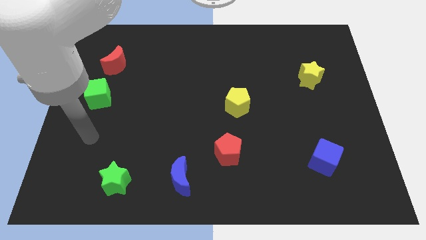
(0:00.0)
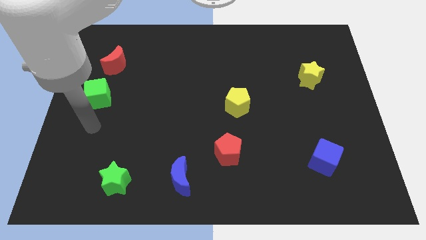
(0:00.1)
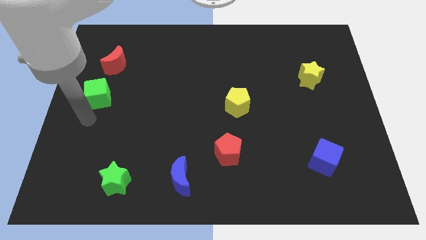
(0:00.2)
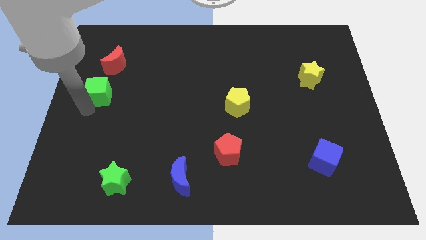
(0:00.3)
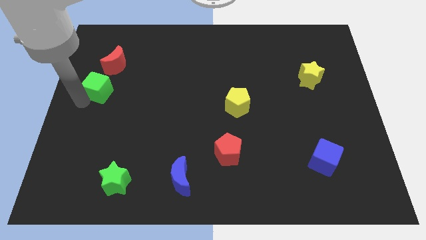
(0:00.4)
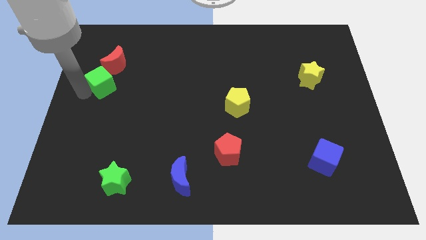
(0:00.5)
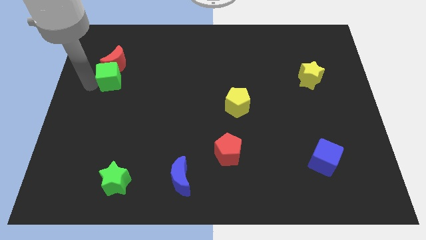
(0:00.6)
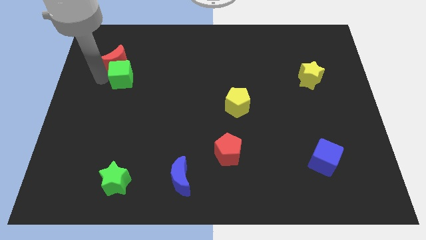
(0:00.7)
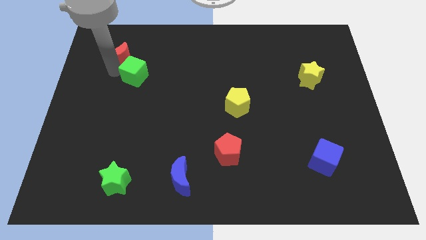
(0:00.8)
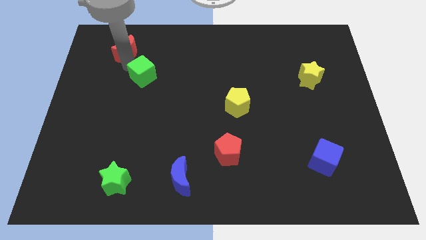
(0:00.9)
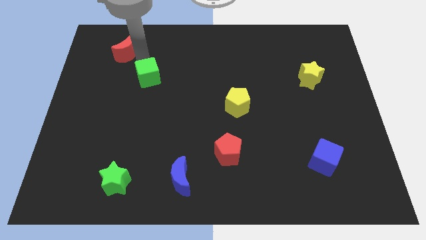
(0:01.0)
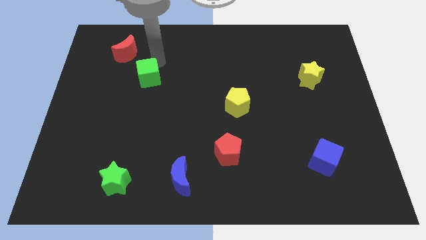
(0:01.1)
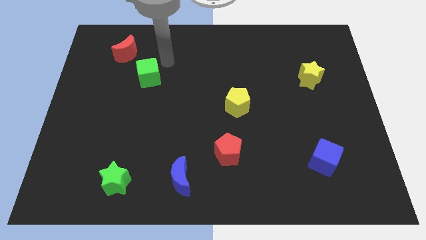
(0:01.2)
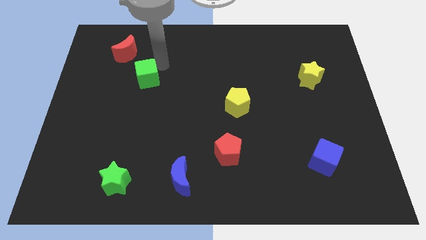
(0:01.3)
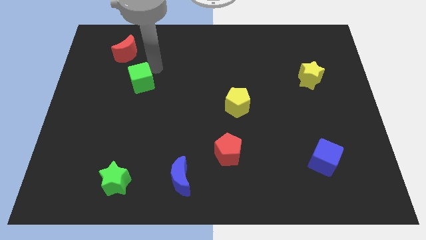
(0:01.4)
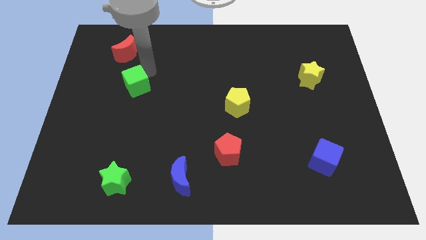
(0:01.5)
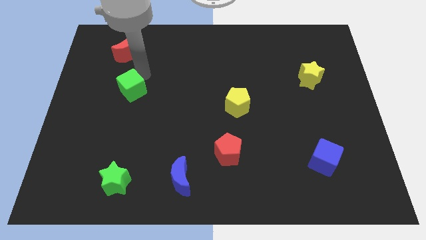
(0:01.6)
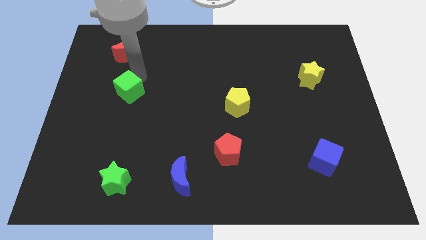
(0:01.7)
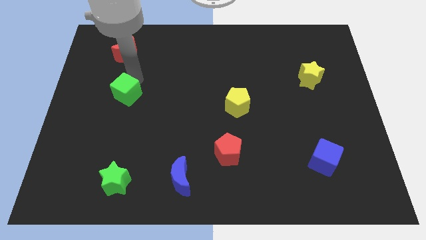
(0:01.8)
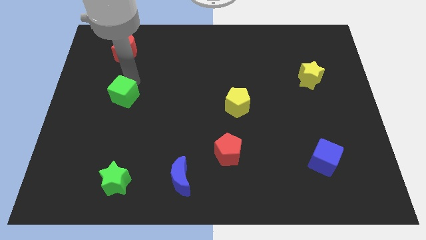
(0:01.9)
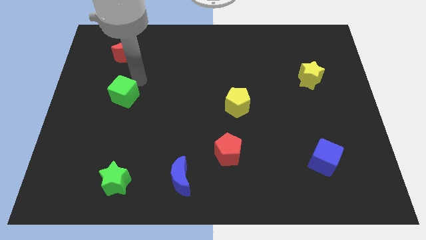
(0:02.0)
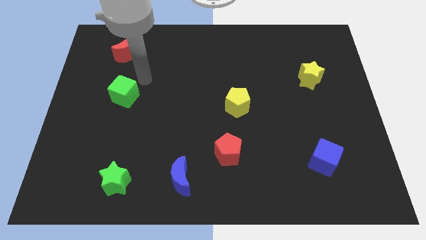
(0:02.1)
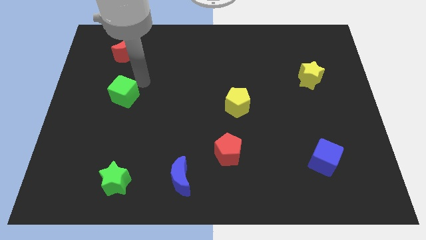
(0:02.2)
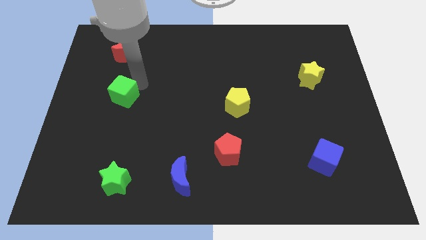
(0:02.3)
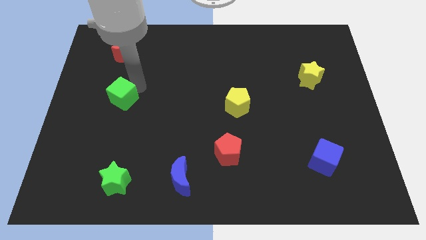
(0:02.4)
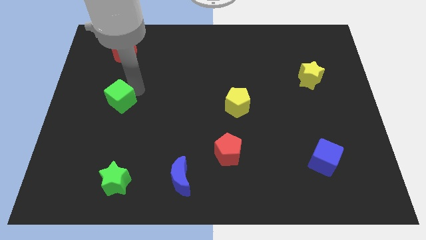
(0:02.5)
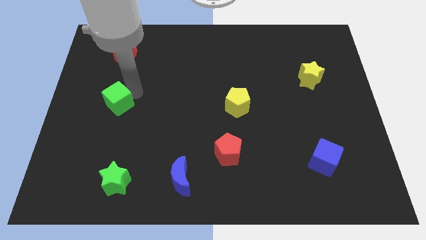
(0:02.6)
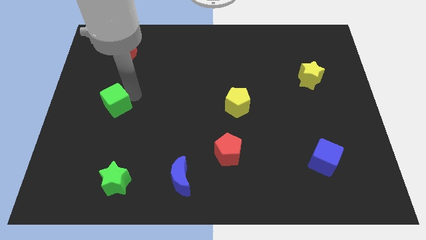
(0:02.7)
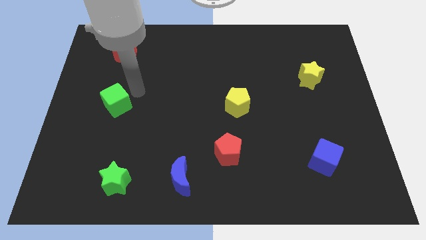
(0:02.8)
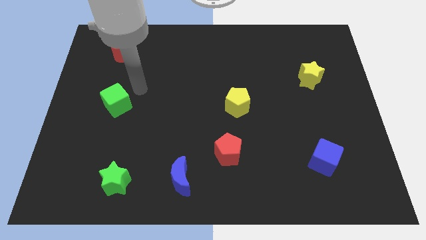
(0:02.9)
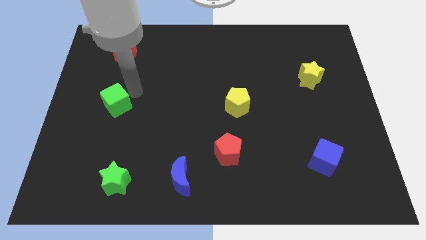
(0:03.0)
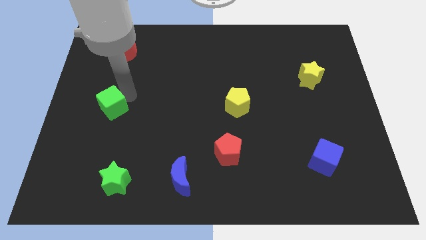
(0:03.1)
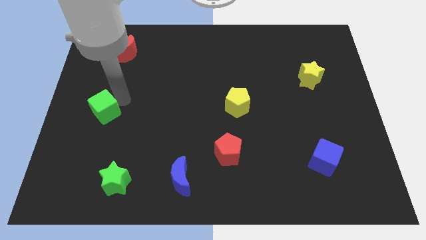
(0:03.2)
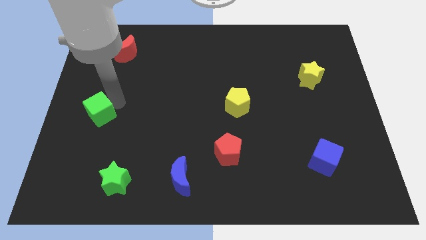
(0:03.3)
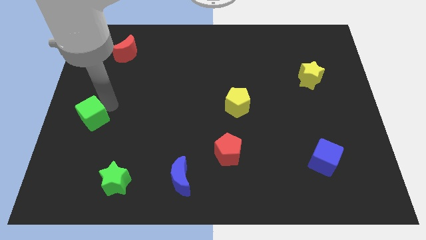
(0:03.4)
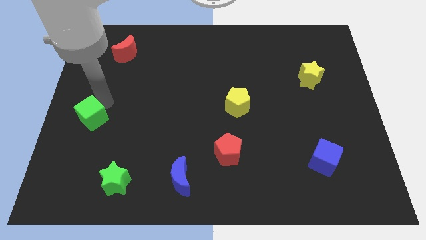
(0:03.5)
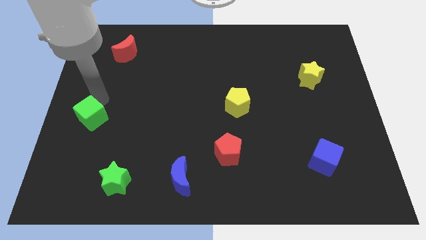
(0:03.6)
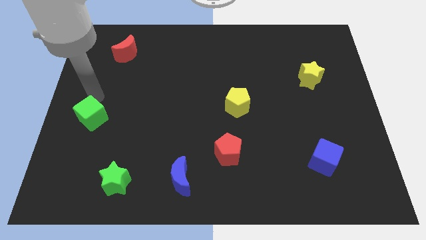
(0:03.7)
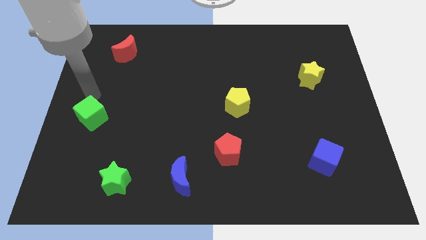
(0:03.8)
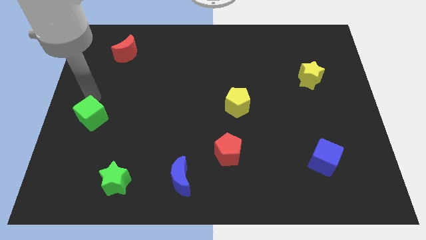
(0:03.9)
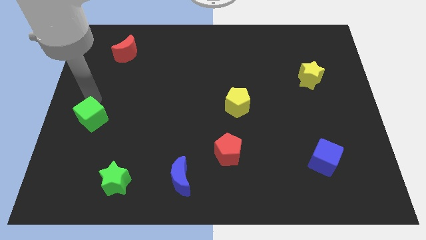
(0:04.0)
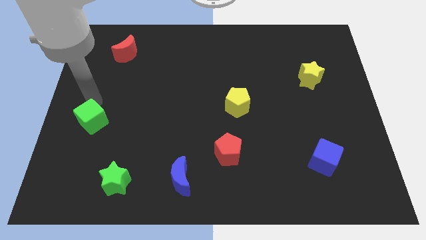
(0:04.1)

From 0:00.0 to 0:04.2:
slightly move the green cube down

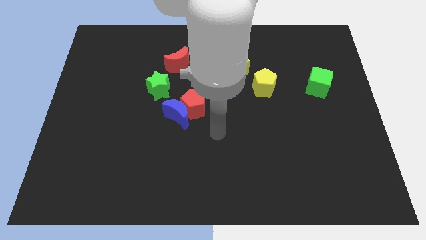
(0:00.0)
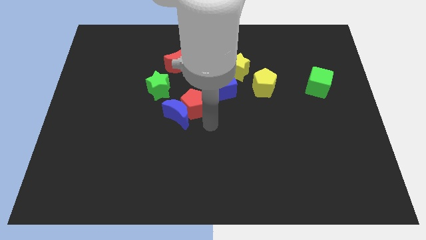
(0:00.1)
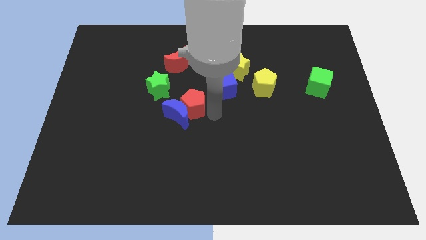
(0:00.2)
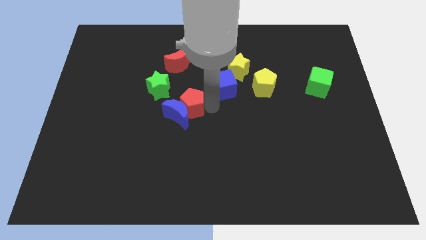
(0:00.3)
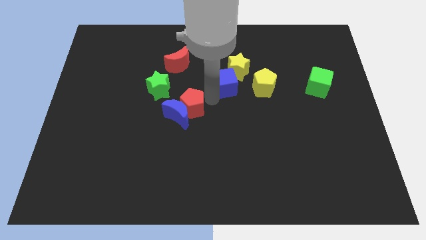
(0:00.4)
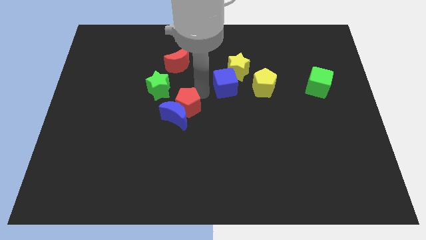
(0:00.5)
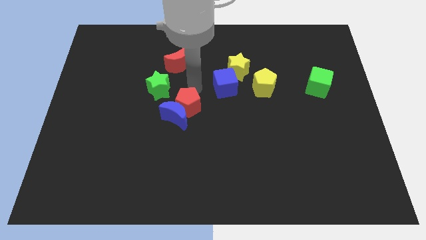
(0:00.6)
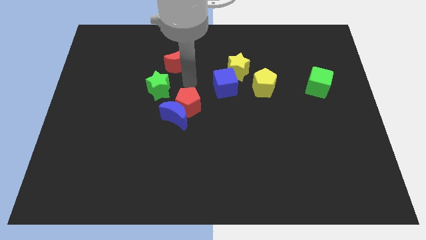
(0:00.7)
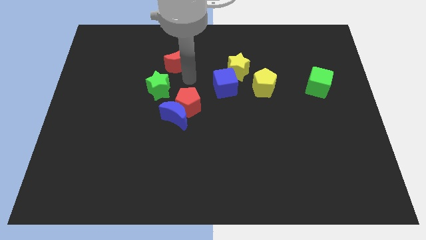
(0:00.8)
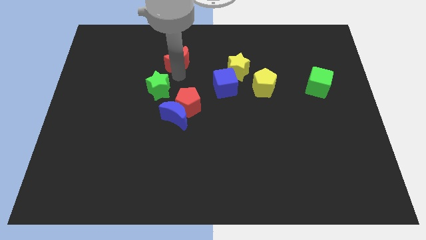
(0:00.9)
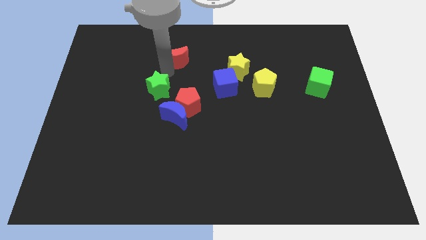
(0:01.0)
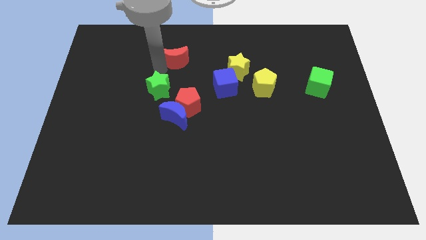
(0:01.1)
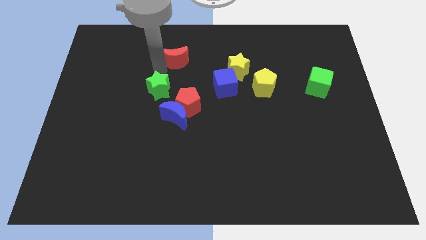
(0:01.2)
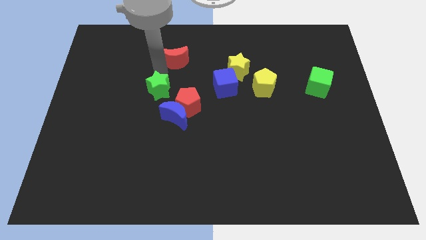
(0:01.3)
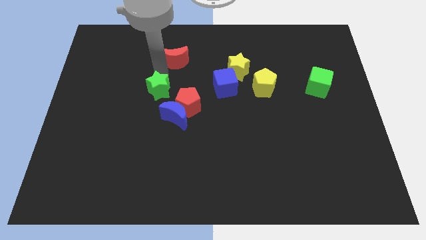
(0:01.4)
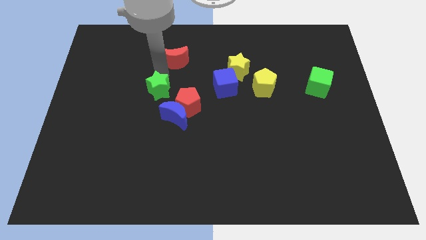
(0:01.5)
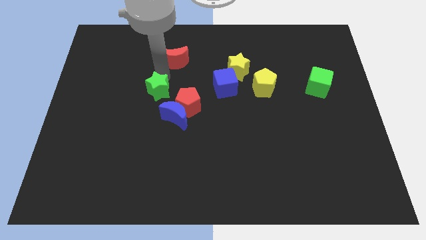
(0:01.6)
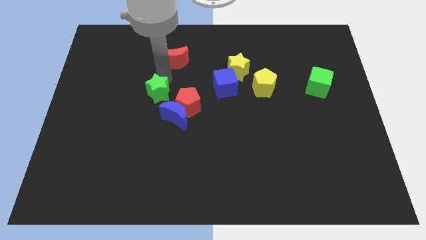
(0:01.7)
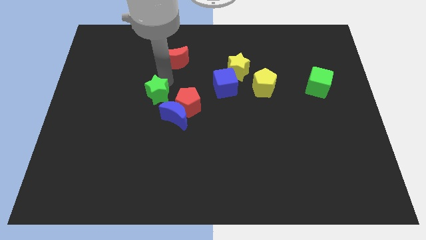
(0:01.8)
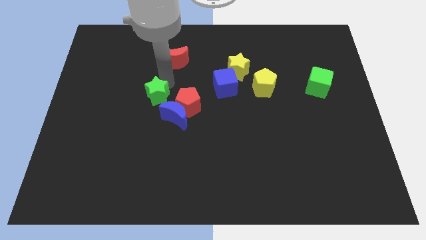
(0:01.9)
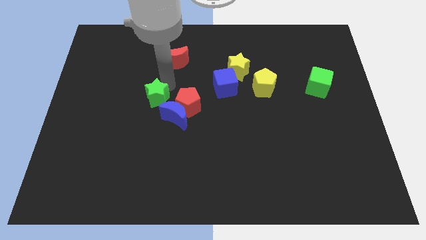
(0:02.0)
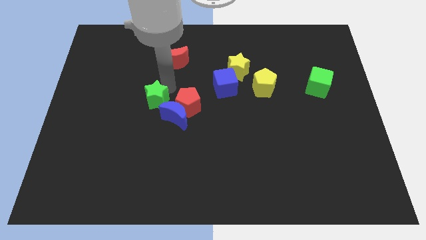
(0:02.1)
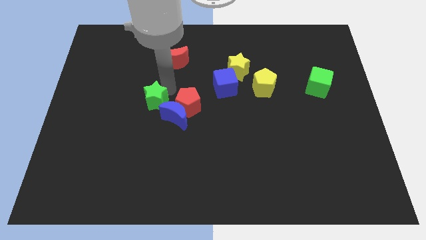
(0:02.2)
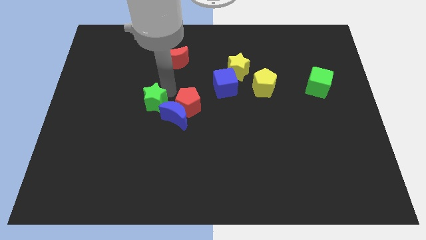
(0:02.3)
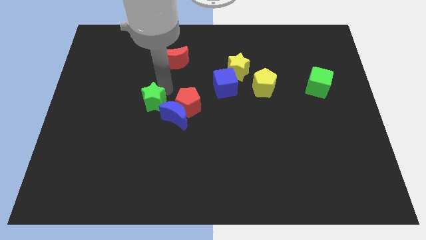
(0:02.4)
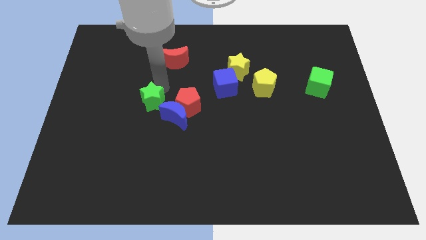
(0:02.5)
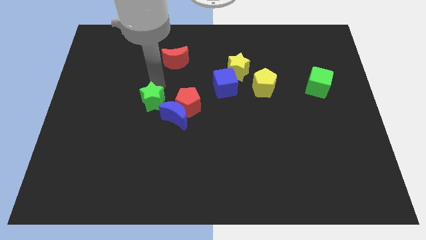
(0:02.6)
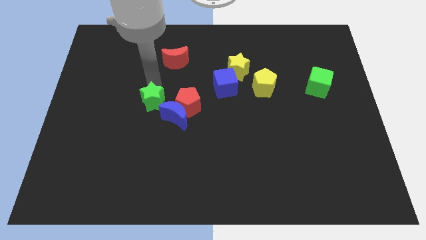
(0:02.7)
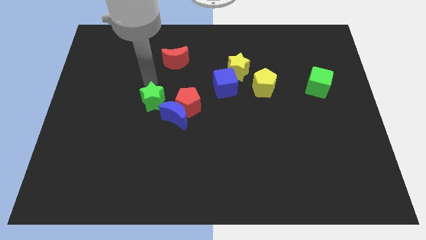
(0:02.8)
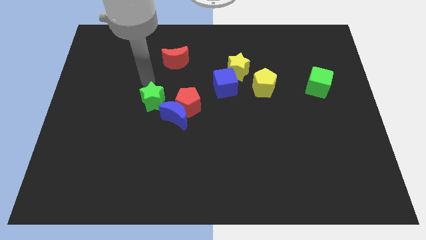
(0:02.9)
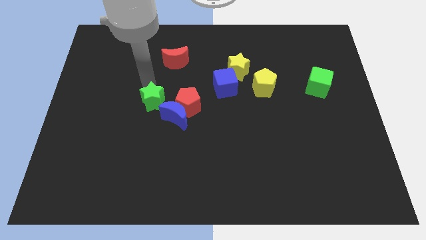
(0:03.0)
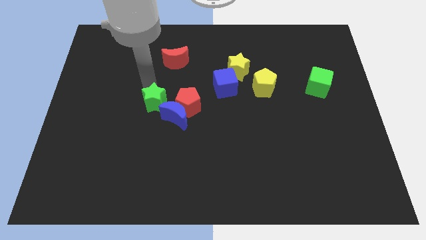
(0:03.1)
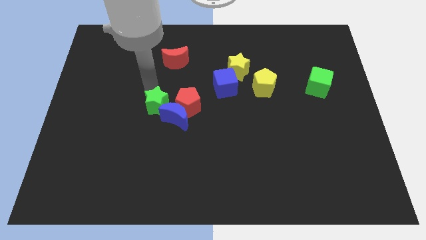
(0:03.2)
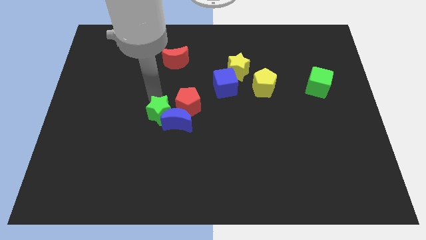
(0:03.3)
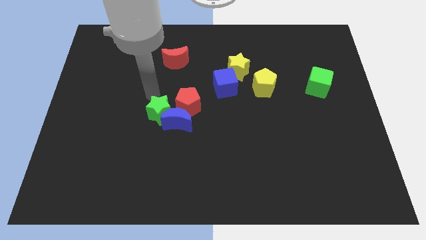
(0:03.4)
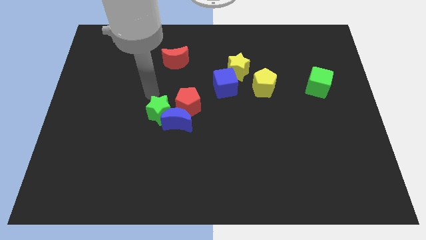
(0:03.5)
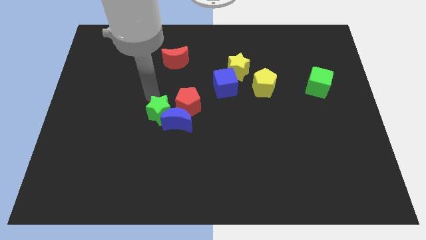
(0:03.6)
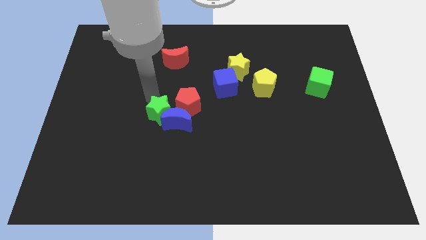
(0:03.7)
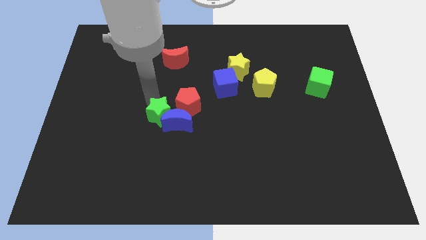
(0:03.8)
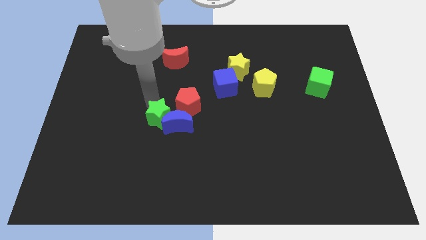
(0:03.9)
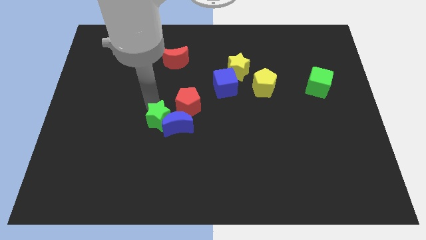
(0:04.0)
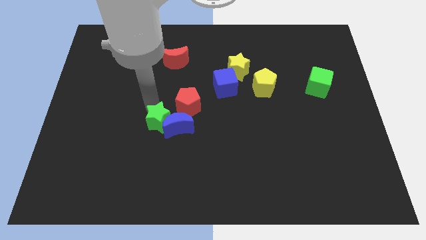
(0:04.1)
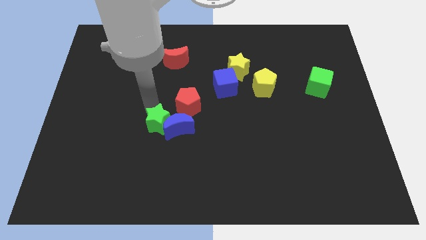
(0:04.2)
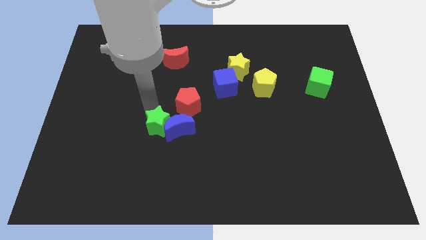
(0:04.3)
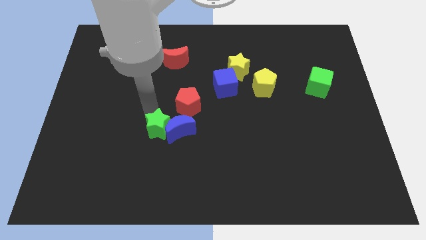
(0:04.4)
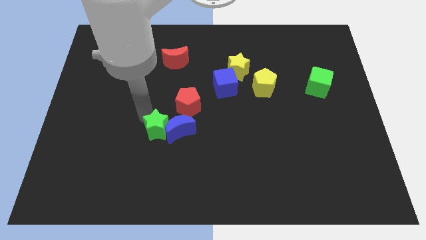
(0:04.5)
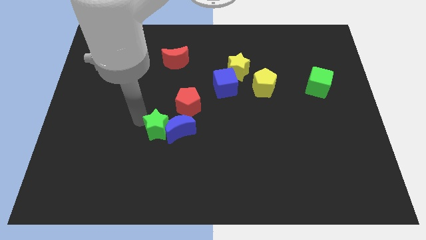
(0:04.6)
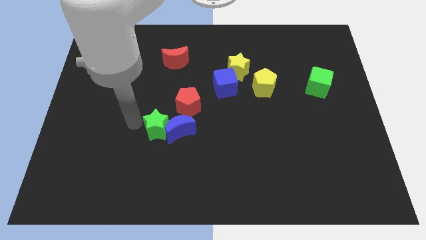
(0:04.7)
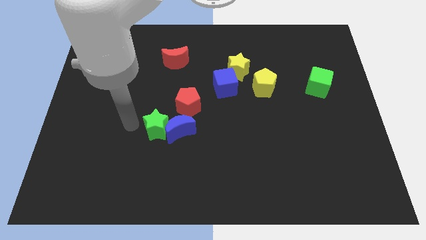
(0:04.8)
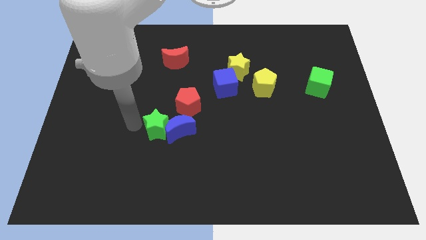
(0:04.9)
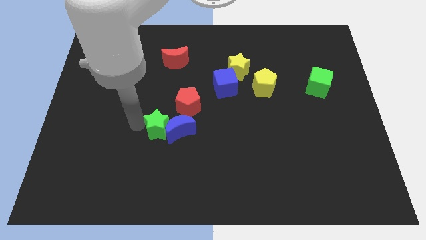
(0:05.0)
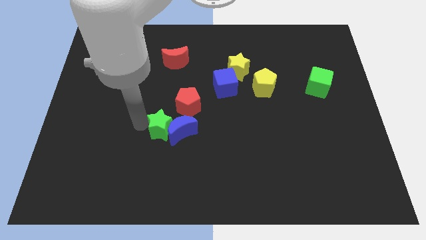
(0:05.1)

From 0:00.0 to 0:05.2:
slightly slide the green star downwards and to the right
